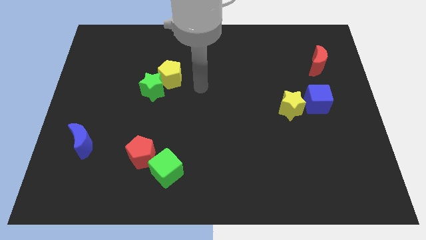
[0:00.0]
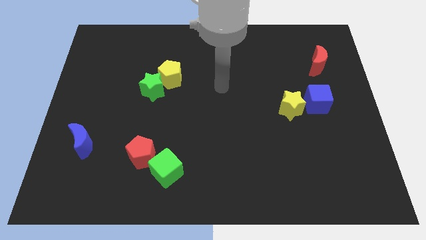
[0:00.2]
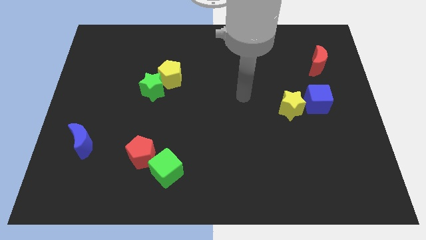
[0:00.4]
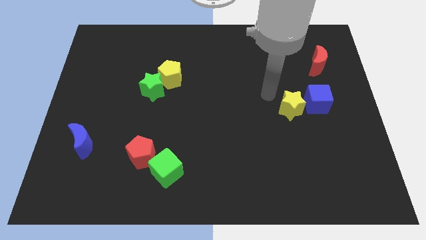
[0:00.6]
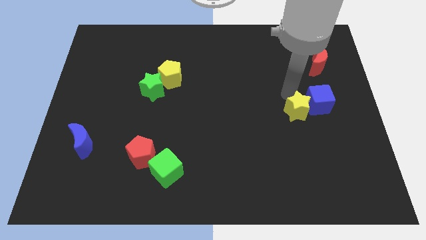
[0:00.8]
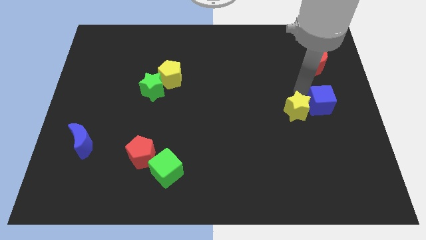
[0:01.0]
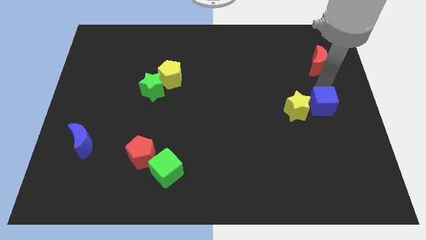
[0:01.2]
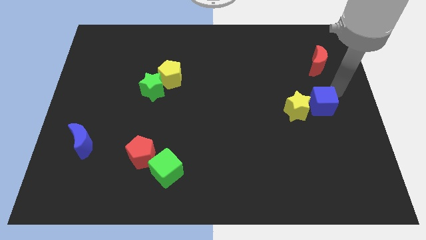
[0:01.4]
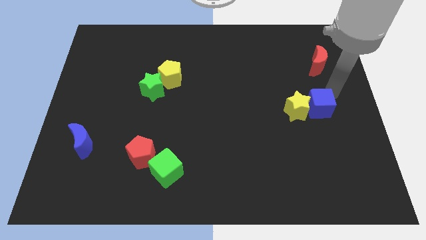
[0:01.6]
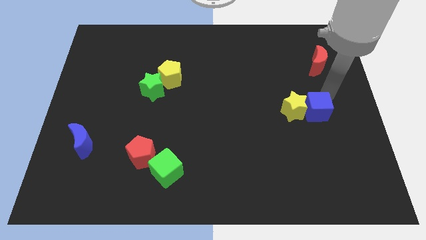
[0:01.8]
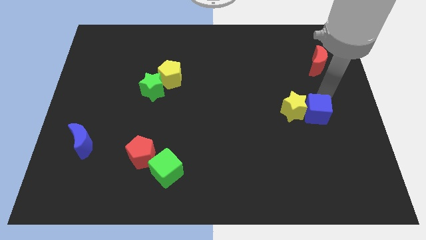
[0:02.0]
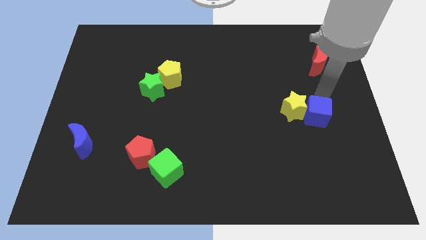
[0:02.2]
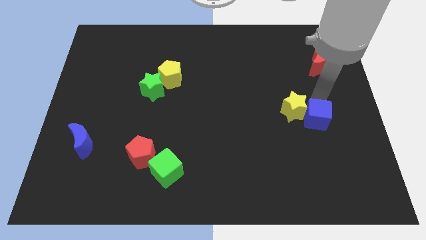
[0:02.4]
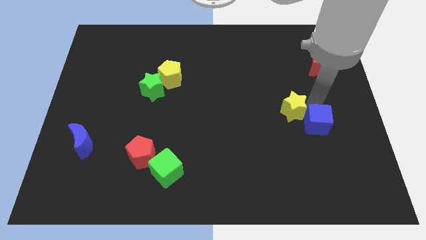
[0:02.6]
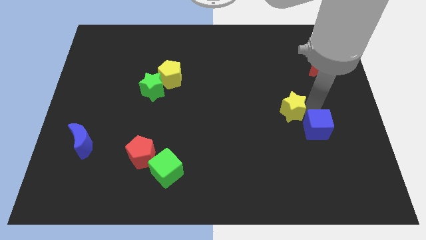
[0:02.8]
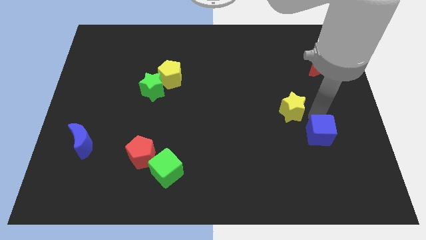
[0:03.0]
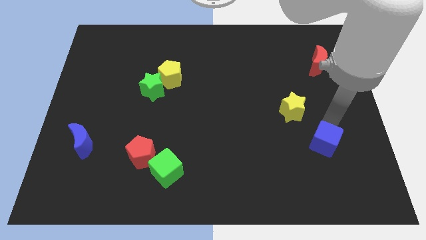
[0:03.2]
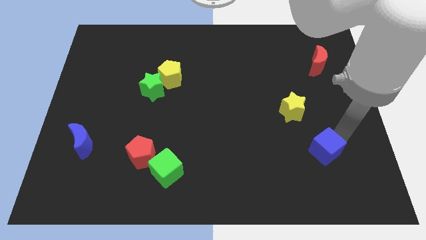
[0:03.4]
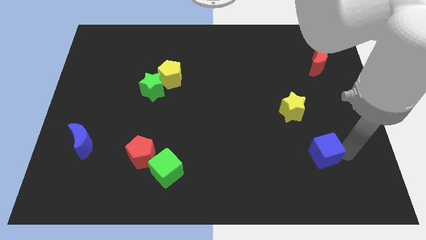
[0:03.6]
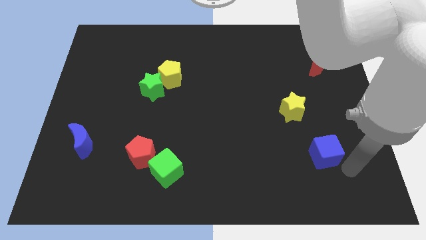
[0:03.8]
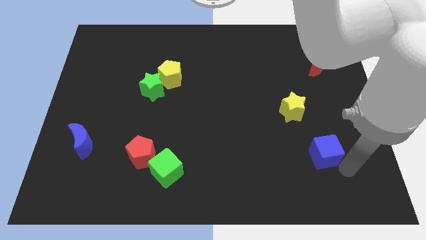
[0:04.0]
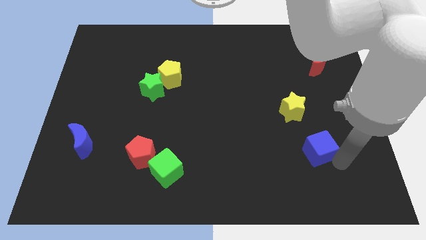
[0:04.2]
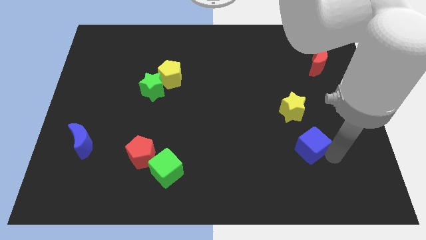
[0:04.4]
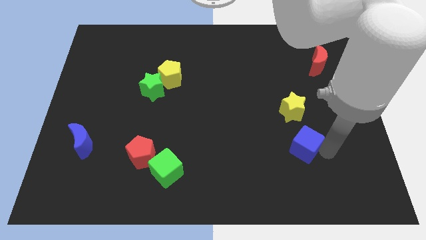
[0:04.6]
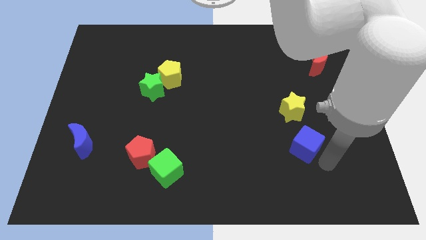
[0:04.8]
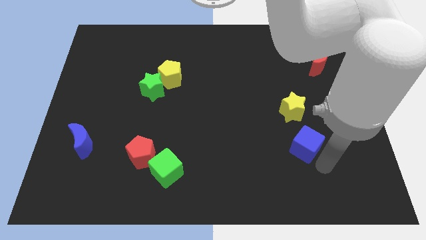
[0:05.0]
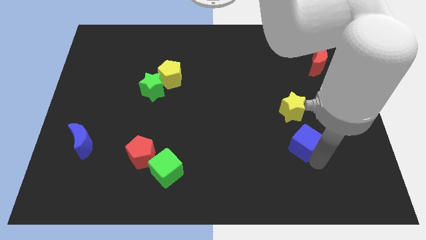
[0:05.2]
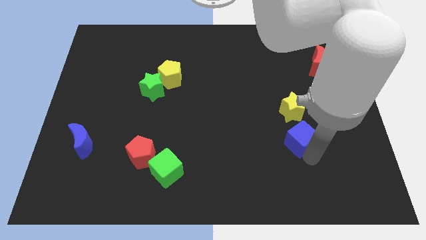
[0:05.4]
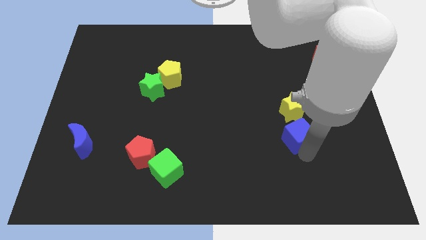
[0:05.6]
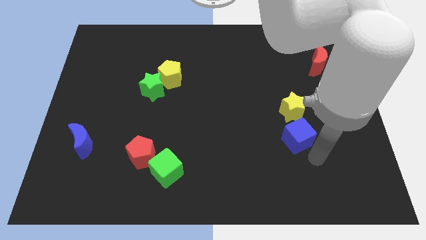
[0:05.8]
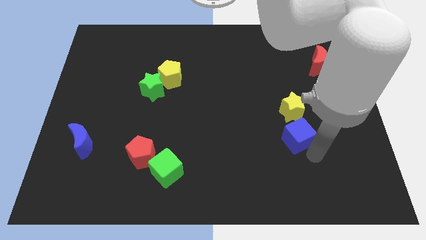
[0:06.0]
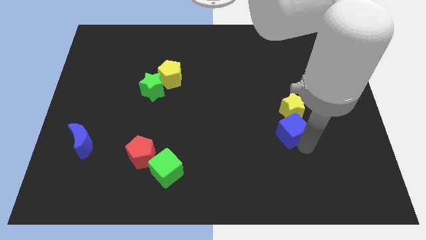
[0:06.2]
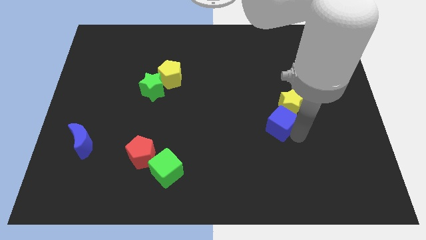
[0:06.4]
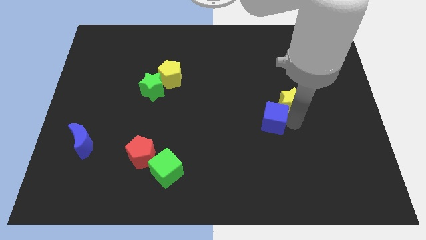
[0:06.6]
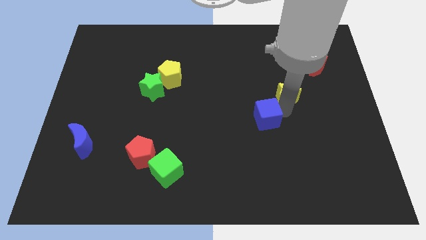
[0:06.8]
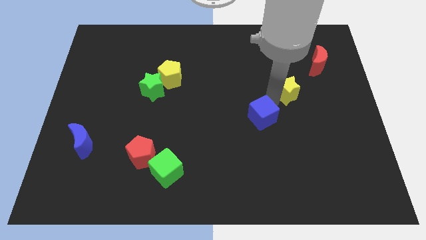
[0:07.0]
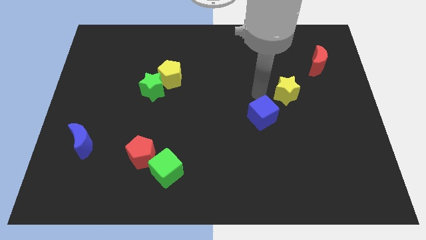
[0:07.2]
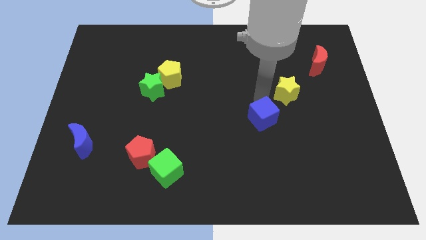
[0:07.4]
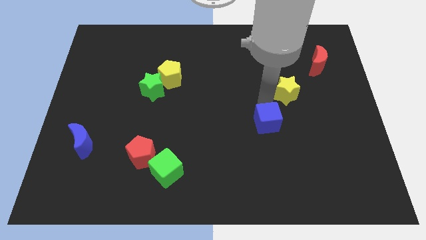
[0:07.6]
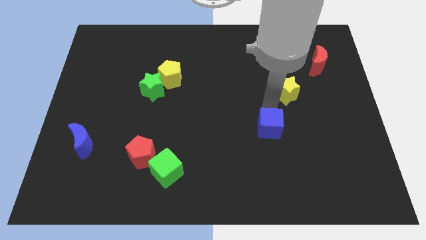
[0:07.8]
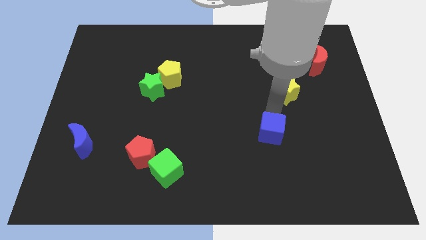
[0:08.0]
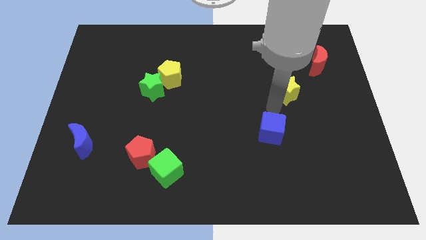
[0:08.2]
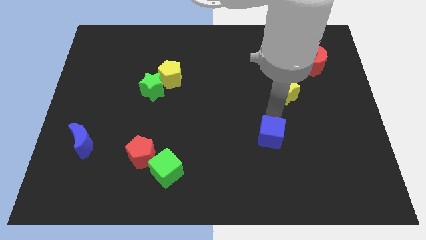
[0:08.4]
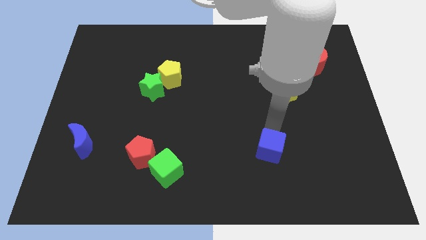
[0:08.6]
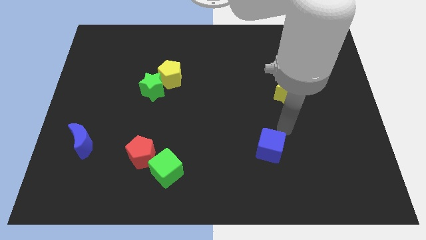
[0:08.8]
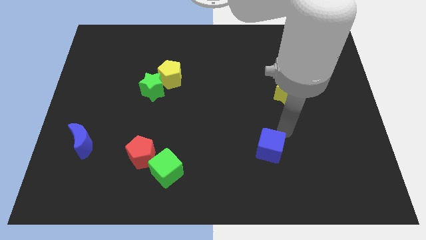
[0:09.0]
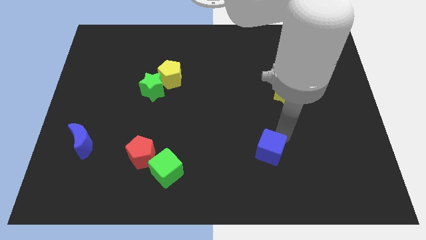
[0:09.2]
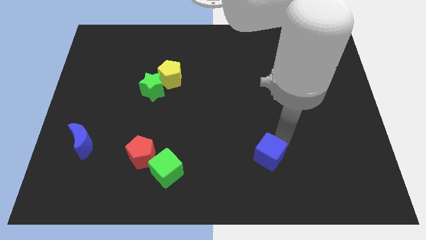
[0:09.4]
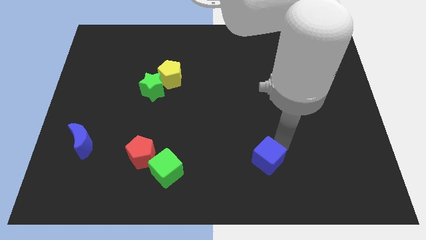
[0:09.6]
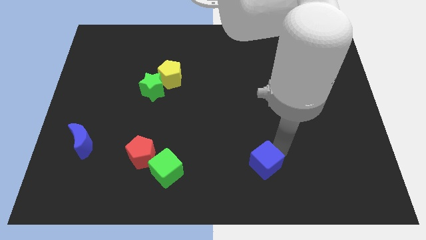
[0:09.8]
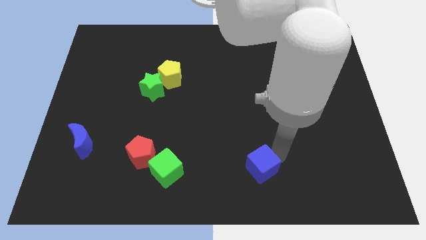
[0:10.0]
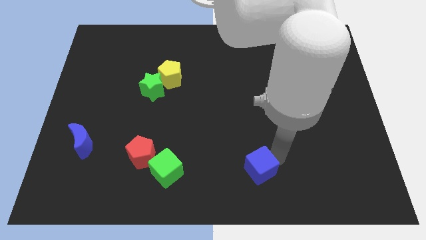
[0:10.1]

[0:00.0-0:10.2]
push the blue cube to the bottom side

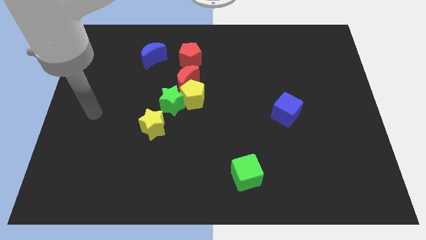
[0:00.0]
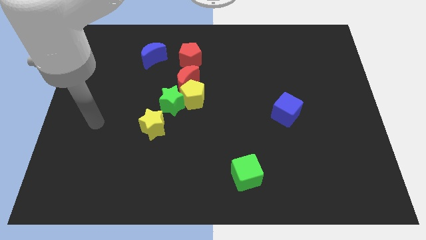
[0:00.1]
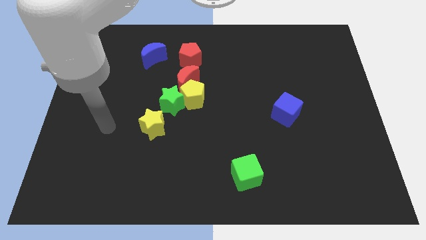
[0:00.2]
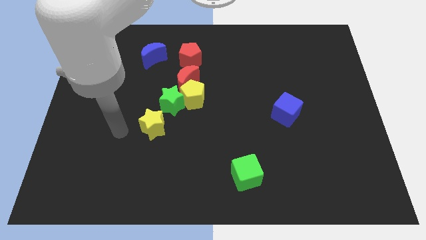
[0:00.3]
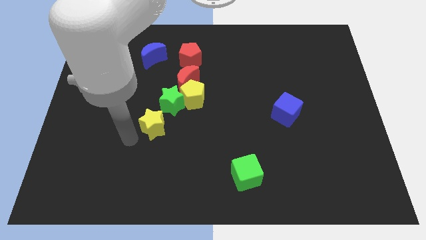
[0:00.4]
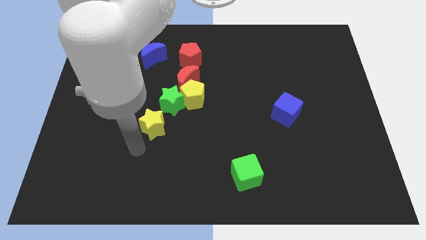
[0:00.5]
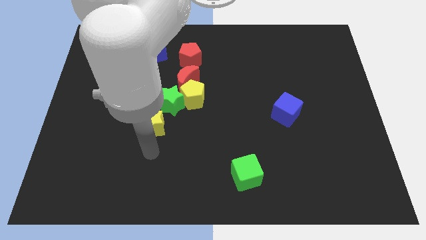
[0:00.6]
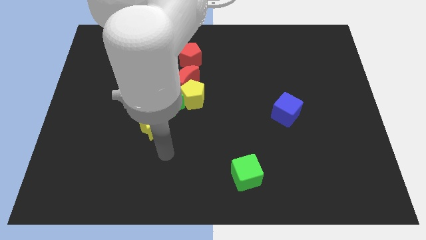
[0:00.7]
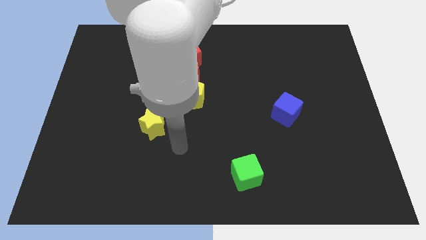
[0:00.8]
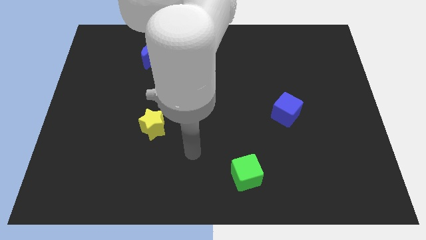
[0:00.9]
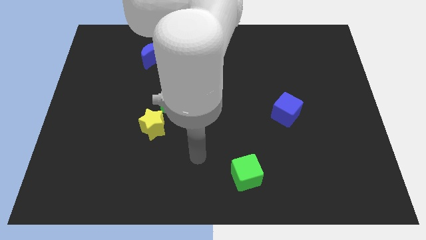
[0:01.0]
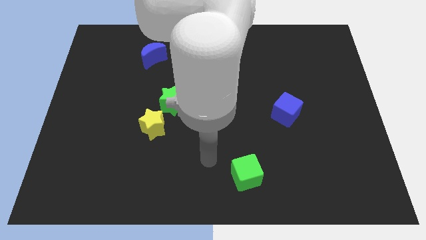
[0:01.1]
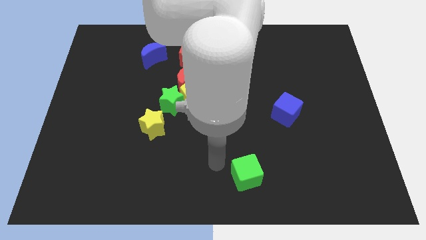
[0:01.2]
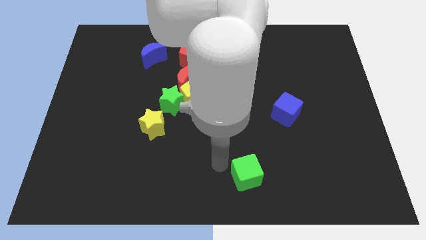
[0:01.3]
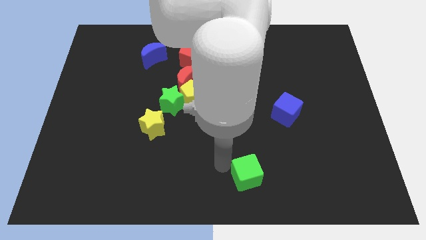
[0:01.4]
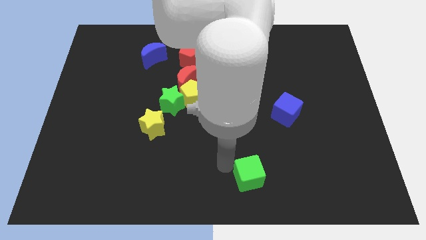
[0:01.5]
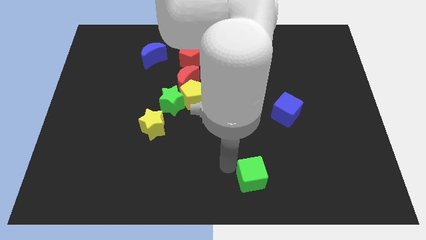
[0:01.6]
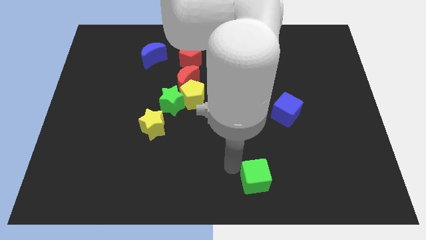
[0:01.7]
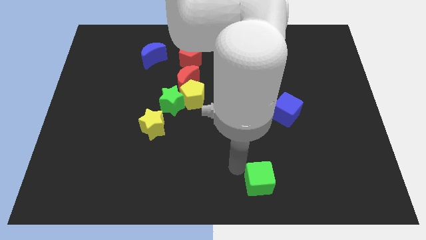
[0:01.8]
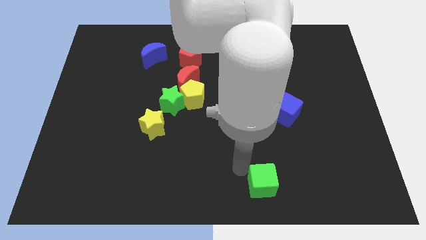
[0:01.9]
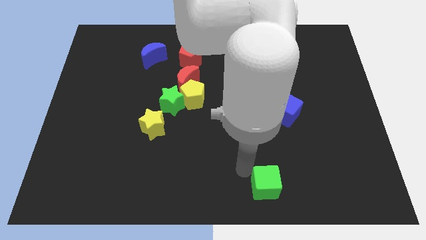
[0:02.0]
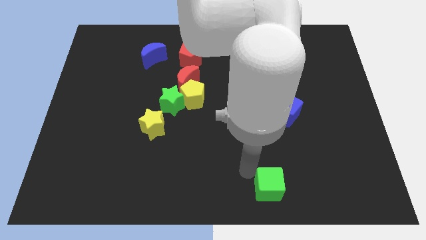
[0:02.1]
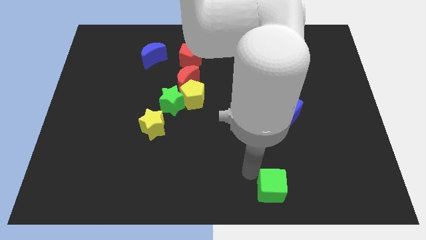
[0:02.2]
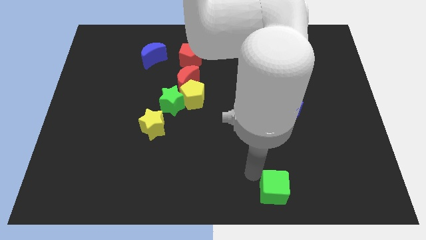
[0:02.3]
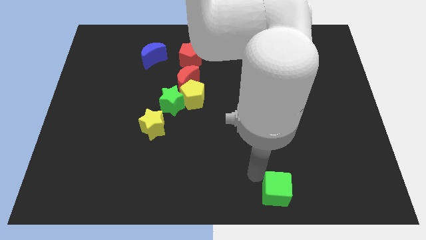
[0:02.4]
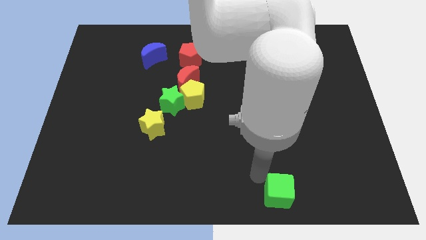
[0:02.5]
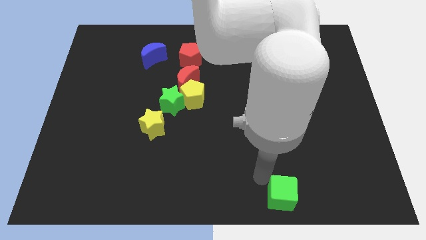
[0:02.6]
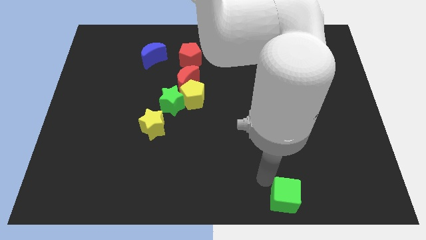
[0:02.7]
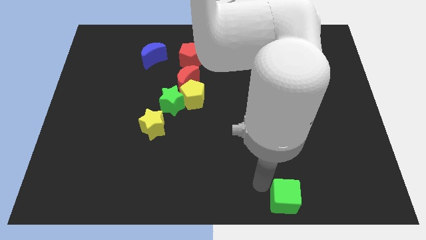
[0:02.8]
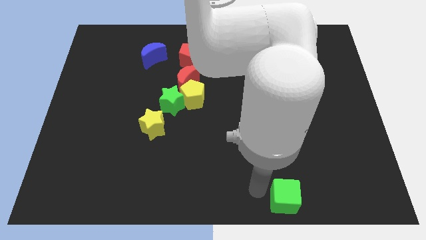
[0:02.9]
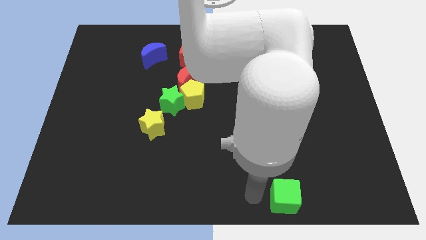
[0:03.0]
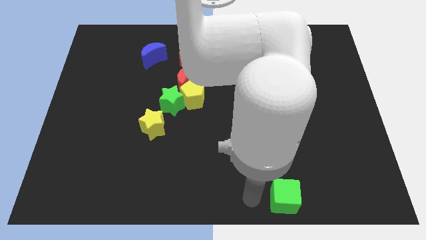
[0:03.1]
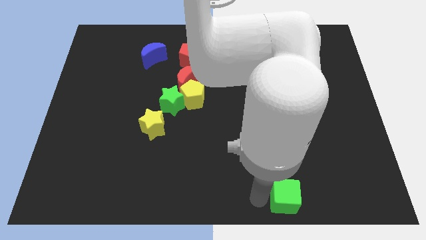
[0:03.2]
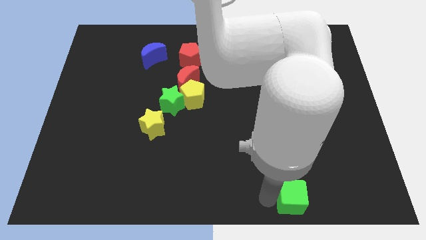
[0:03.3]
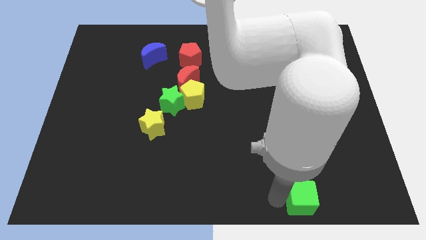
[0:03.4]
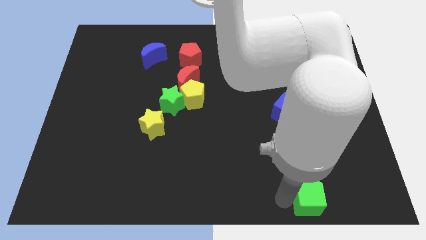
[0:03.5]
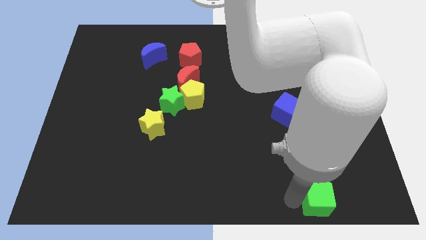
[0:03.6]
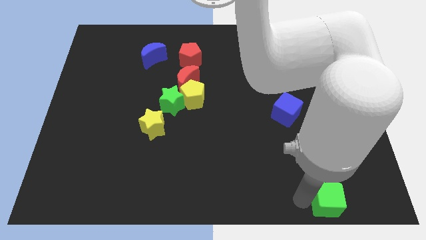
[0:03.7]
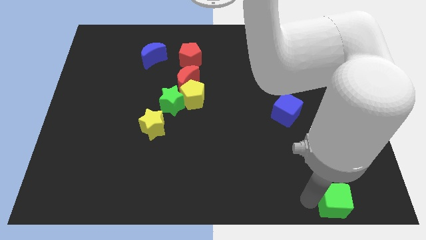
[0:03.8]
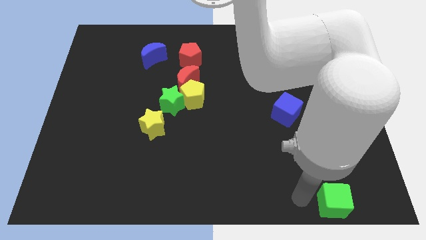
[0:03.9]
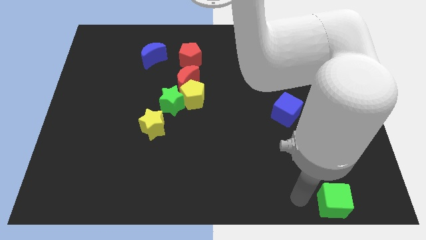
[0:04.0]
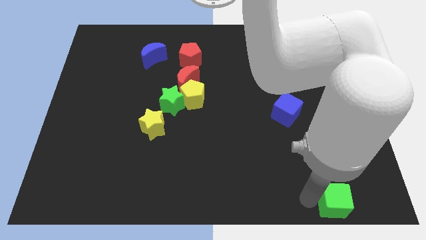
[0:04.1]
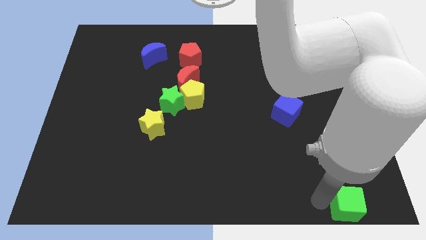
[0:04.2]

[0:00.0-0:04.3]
push the green cube to the lower right corner
